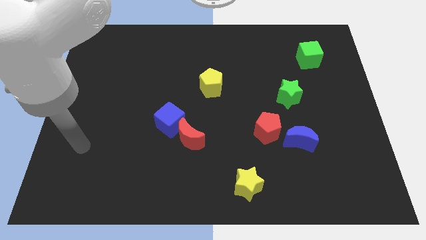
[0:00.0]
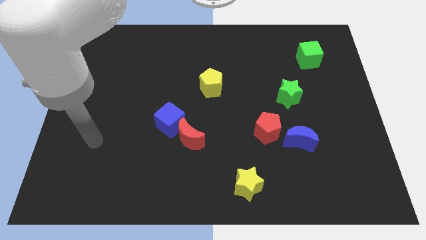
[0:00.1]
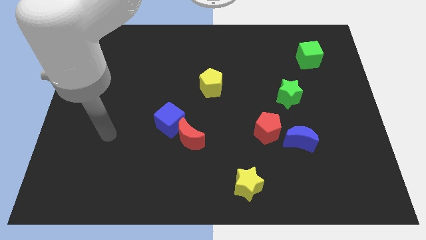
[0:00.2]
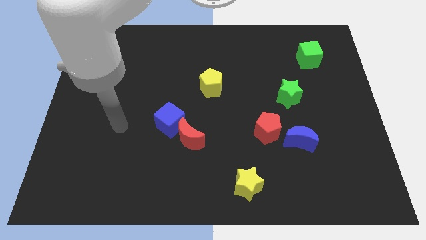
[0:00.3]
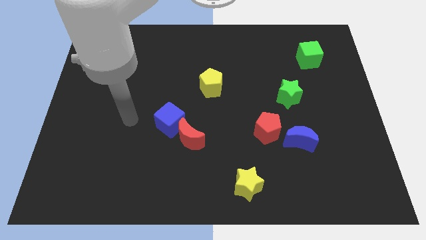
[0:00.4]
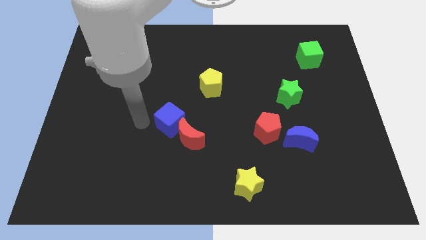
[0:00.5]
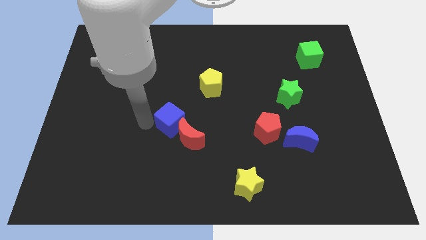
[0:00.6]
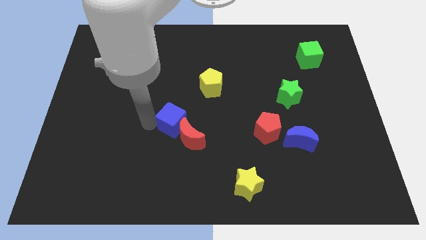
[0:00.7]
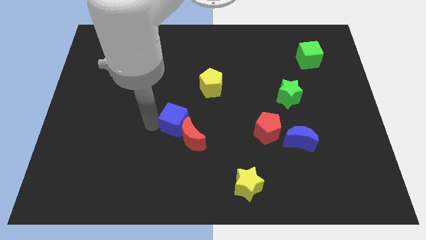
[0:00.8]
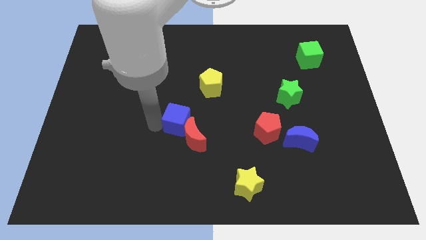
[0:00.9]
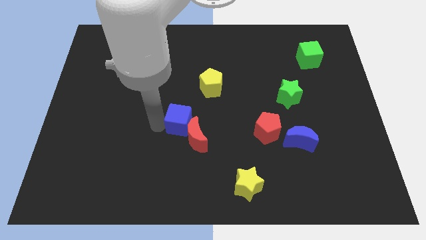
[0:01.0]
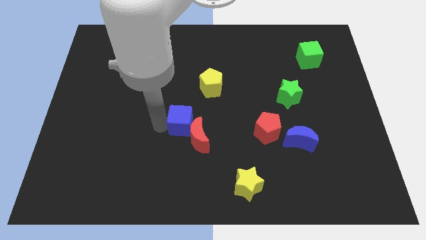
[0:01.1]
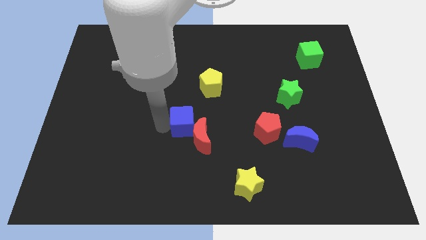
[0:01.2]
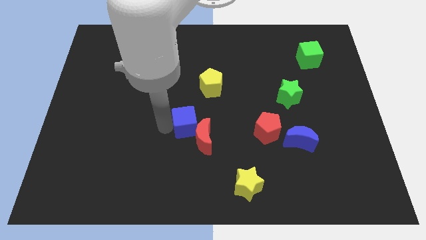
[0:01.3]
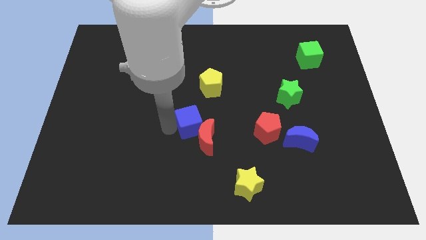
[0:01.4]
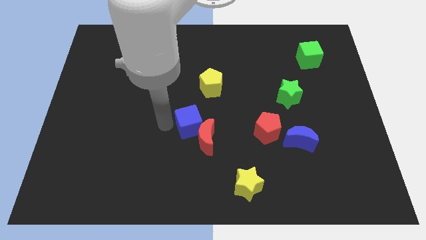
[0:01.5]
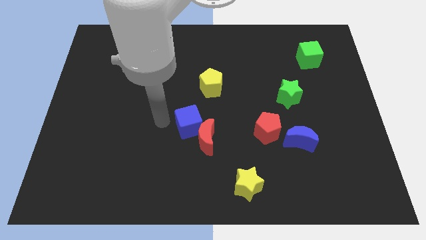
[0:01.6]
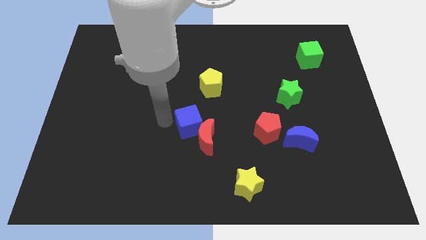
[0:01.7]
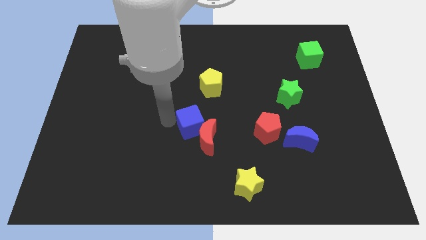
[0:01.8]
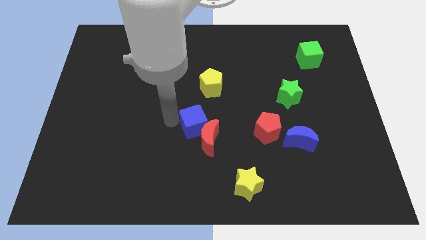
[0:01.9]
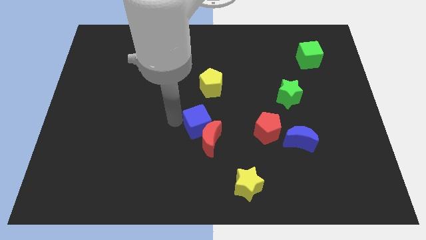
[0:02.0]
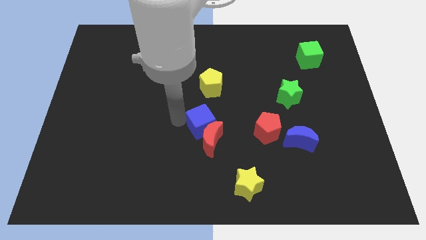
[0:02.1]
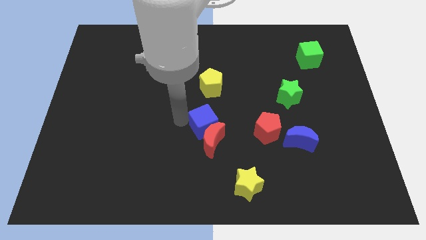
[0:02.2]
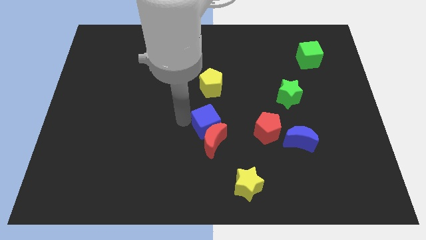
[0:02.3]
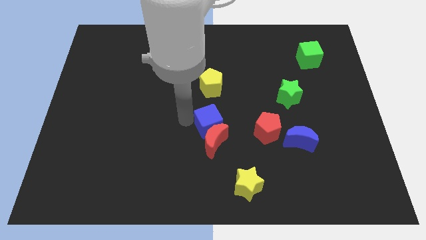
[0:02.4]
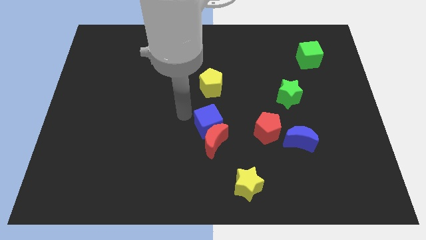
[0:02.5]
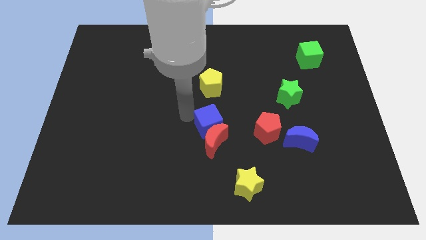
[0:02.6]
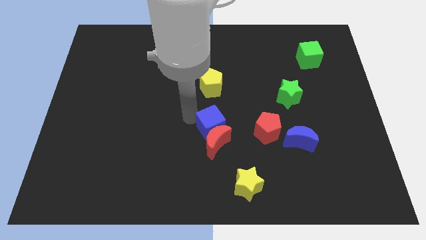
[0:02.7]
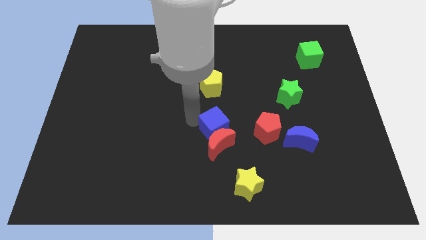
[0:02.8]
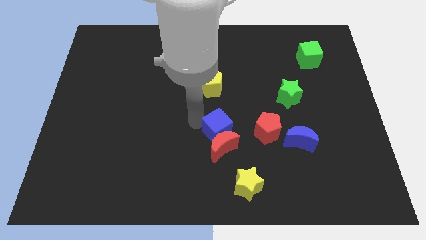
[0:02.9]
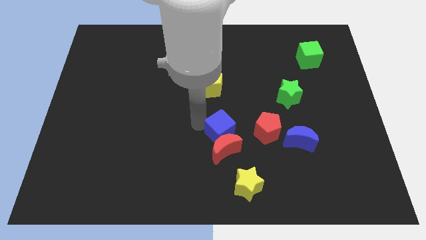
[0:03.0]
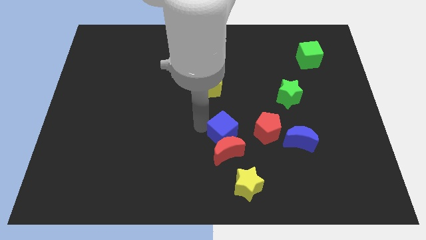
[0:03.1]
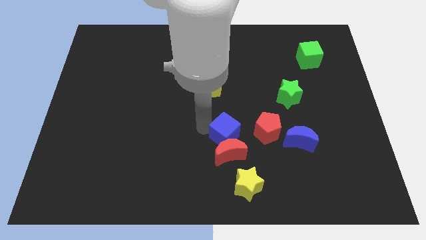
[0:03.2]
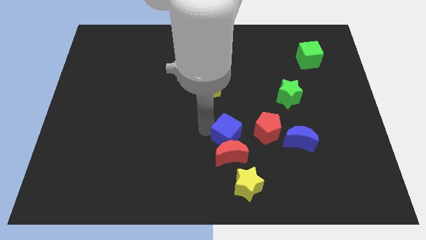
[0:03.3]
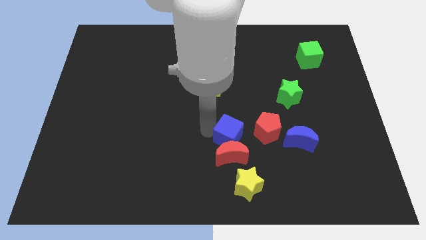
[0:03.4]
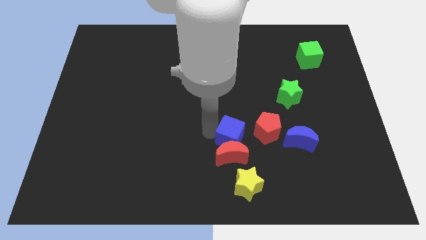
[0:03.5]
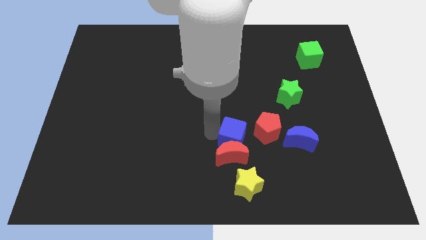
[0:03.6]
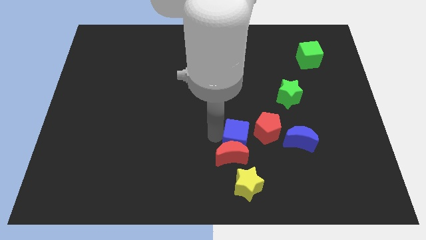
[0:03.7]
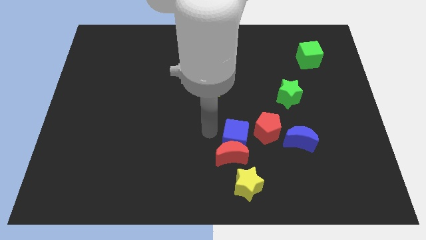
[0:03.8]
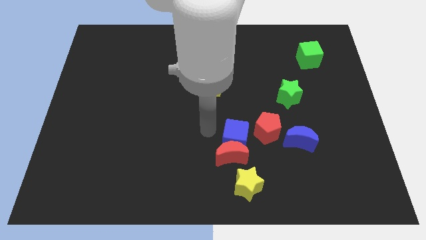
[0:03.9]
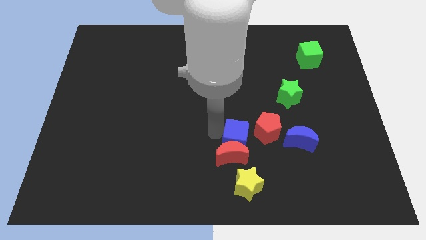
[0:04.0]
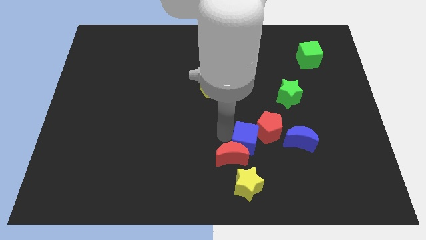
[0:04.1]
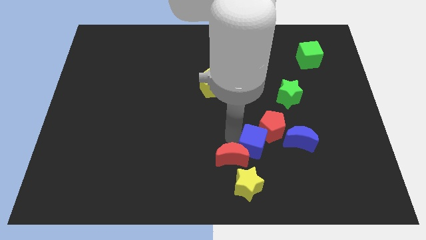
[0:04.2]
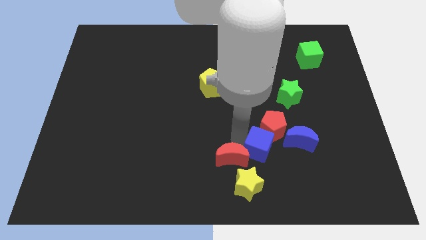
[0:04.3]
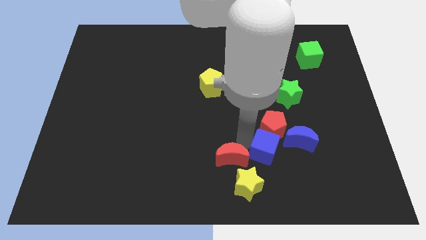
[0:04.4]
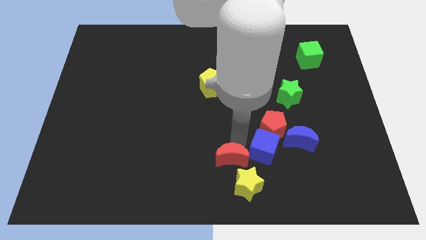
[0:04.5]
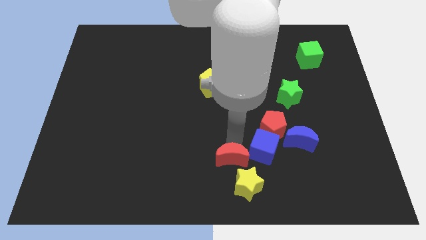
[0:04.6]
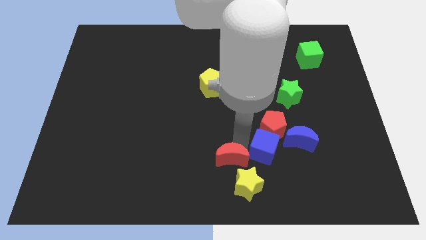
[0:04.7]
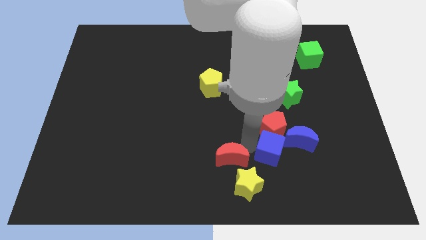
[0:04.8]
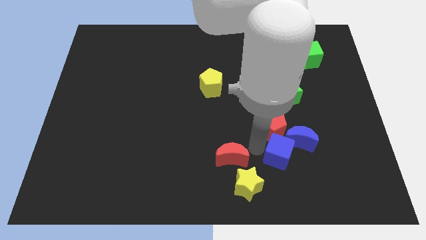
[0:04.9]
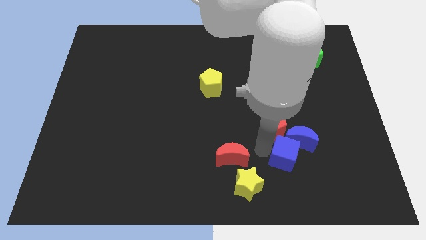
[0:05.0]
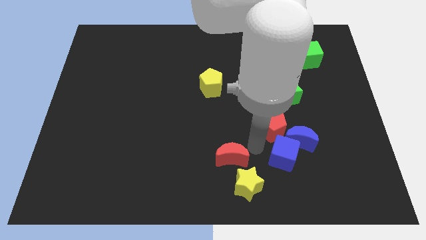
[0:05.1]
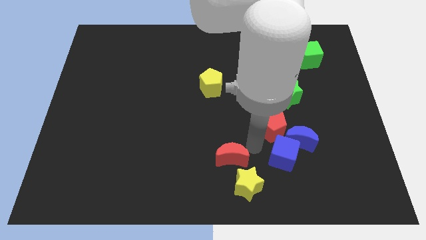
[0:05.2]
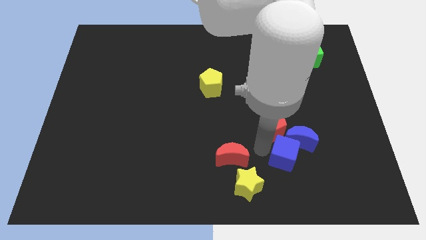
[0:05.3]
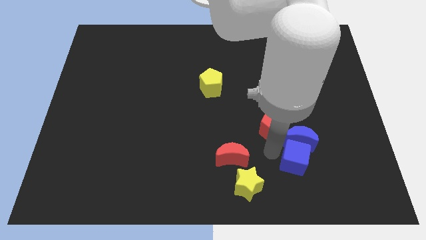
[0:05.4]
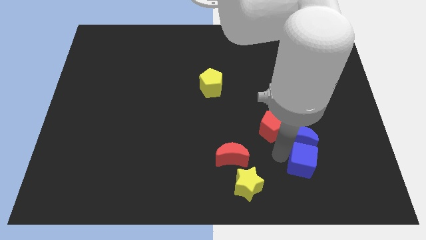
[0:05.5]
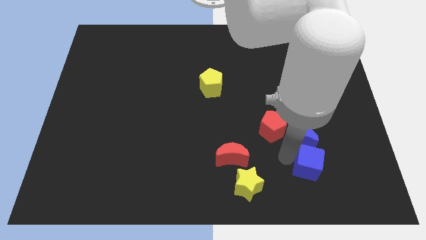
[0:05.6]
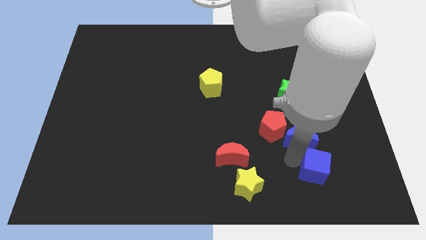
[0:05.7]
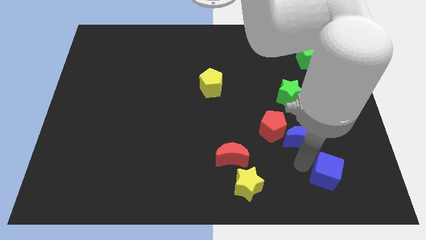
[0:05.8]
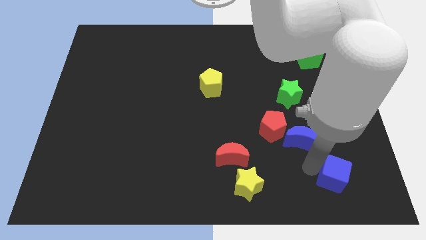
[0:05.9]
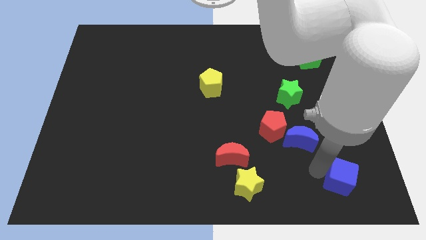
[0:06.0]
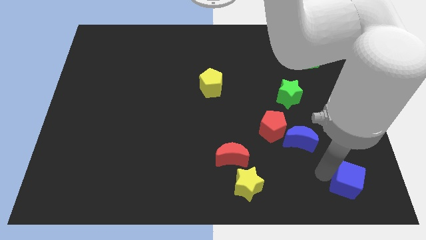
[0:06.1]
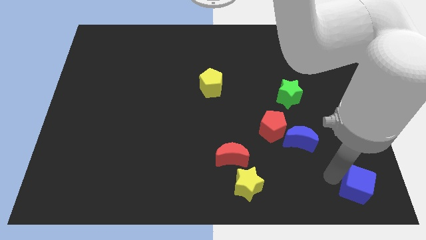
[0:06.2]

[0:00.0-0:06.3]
push the blue cube to the bottom right
